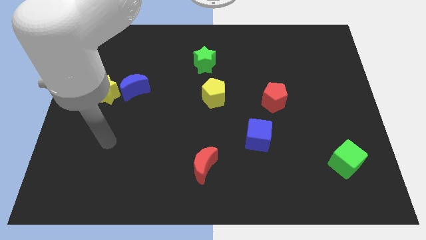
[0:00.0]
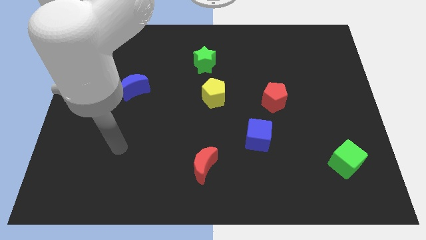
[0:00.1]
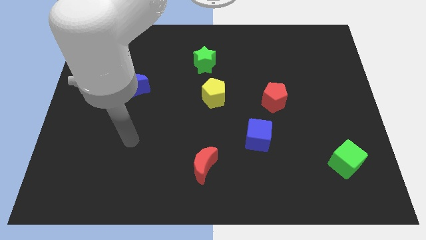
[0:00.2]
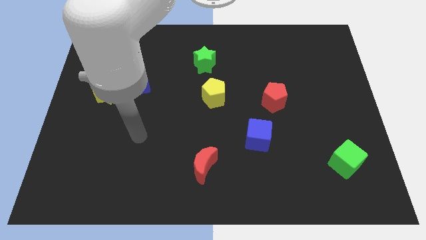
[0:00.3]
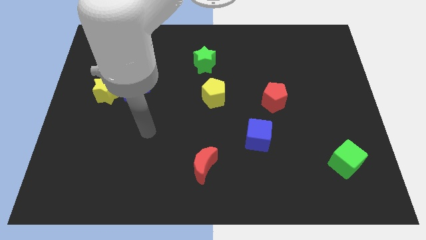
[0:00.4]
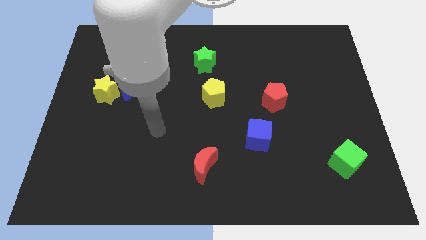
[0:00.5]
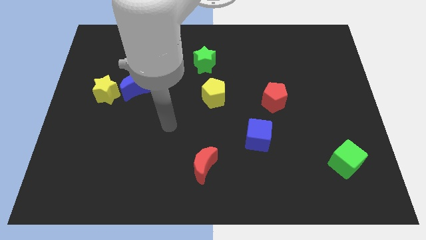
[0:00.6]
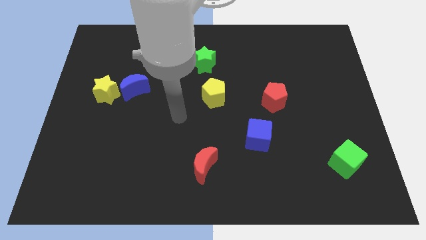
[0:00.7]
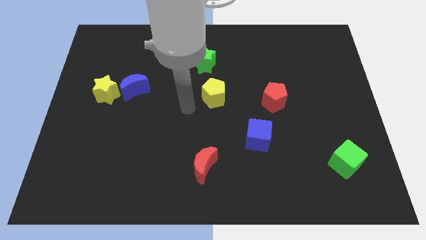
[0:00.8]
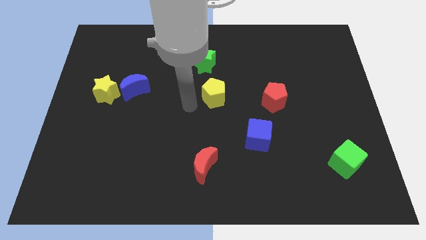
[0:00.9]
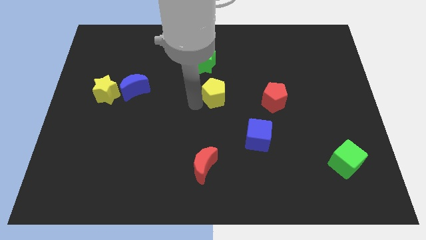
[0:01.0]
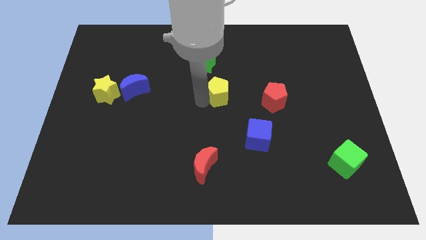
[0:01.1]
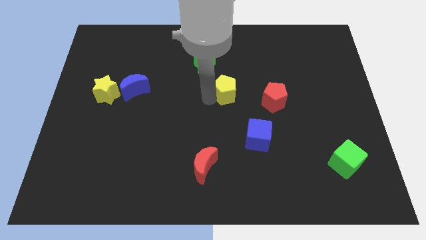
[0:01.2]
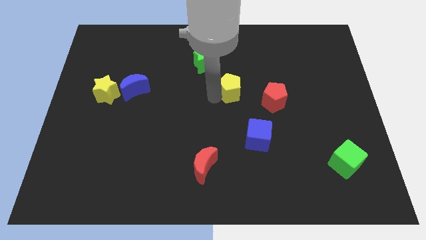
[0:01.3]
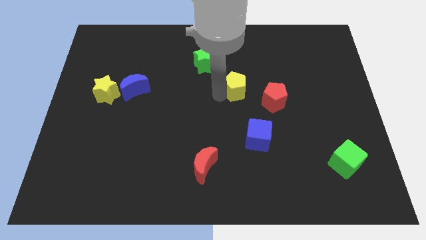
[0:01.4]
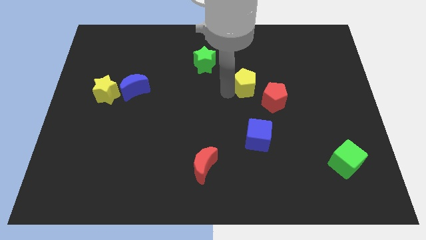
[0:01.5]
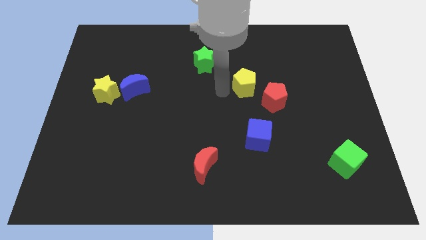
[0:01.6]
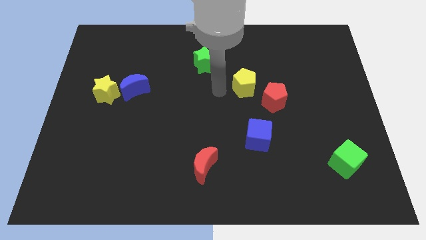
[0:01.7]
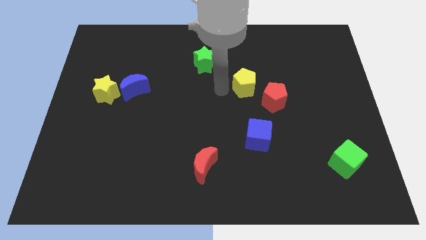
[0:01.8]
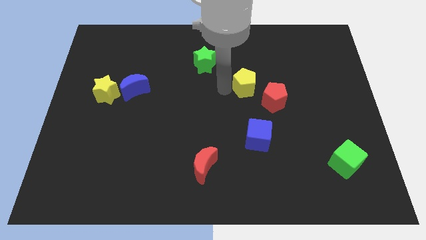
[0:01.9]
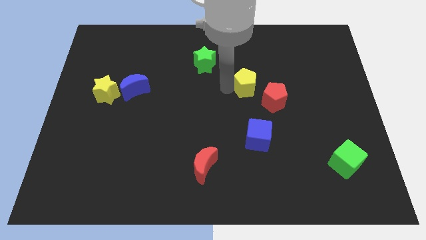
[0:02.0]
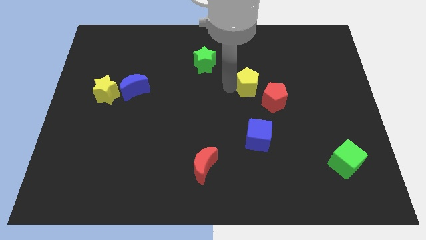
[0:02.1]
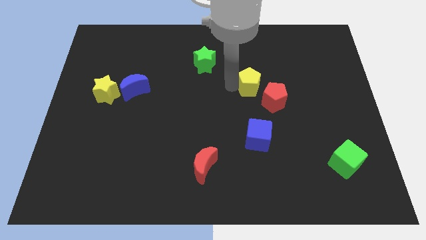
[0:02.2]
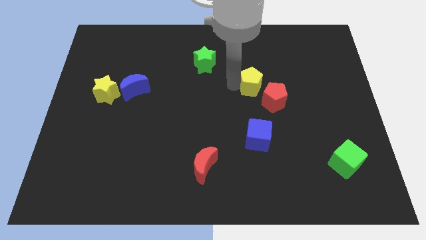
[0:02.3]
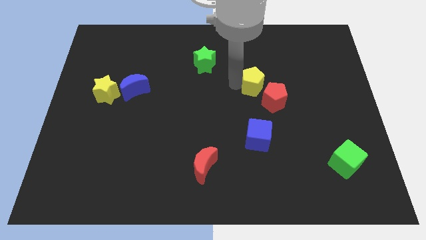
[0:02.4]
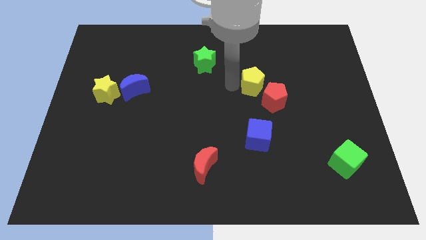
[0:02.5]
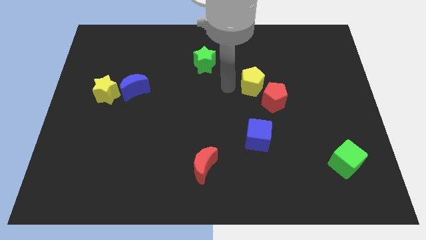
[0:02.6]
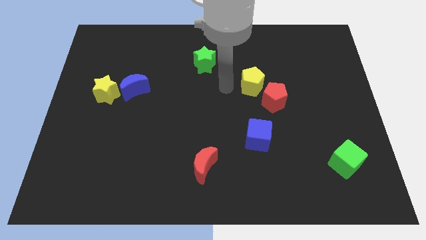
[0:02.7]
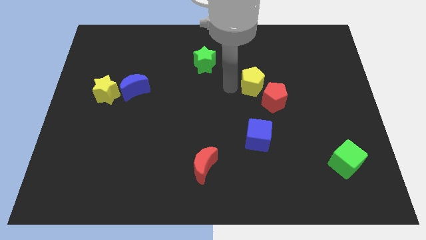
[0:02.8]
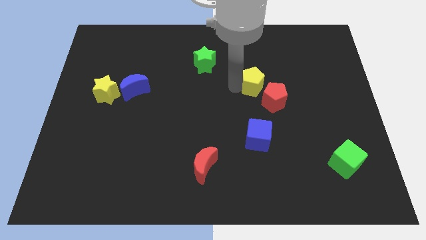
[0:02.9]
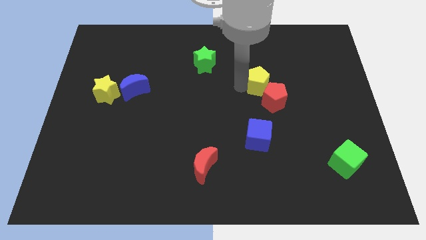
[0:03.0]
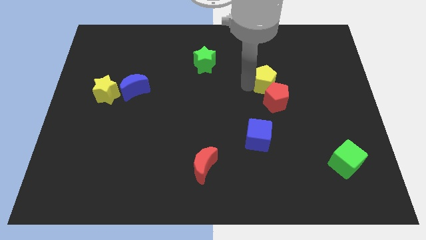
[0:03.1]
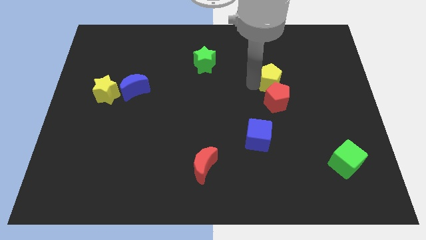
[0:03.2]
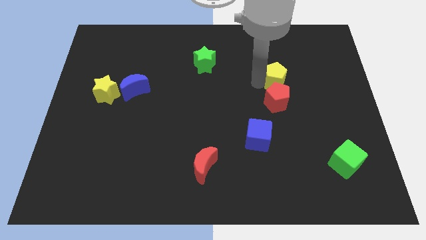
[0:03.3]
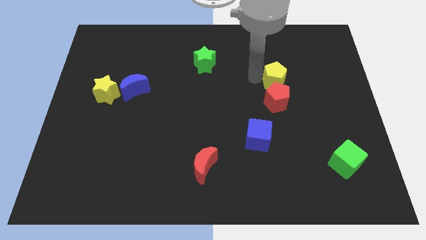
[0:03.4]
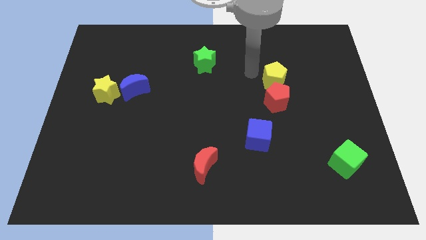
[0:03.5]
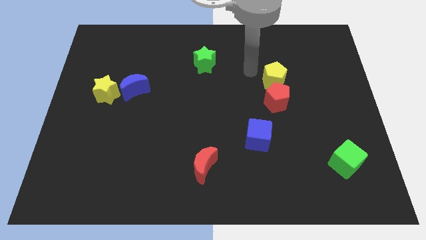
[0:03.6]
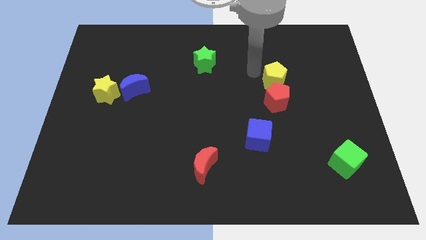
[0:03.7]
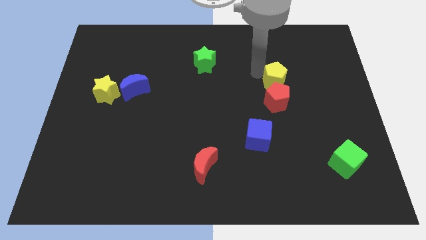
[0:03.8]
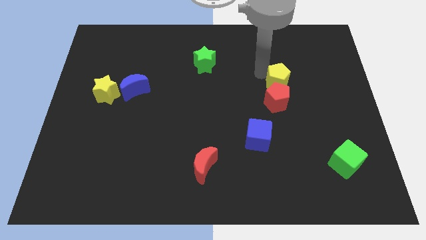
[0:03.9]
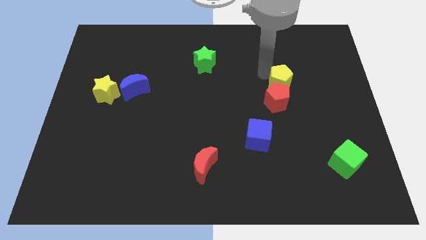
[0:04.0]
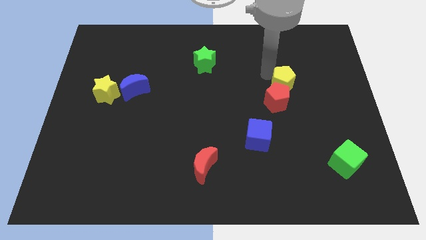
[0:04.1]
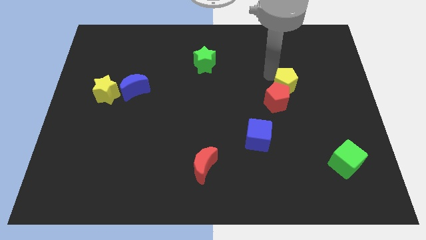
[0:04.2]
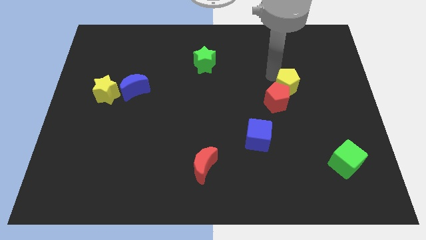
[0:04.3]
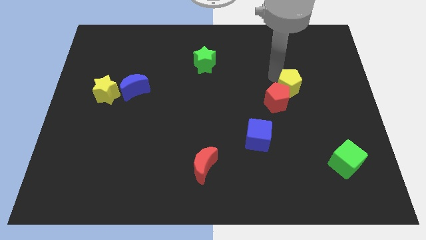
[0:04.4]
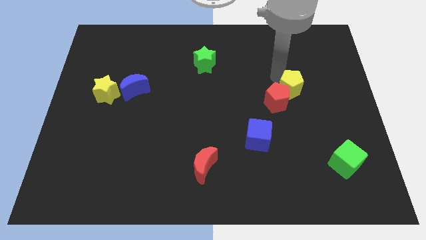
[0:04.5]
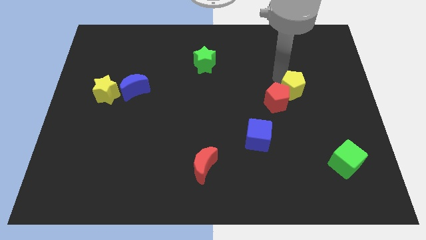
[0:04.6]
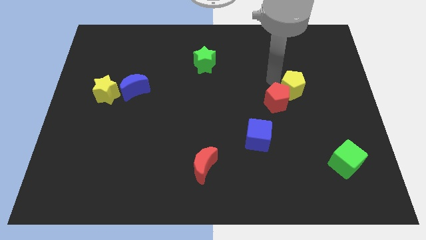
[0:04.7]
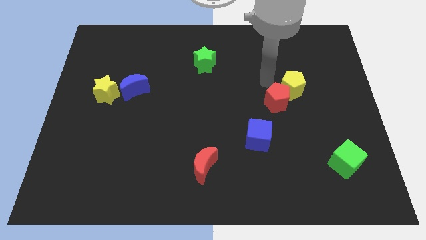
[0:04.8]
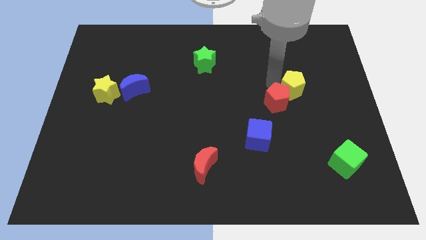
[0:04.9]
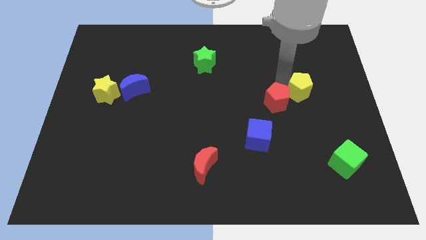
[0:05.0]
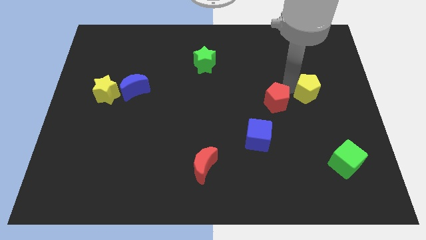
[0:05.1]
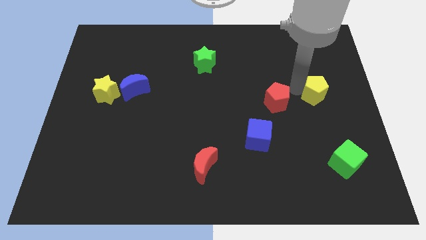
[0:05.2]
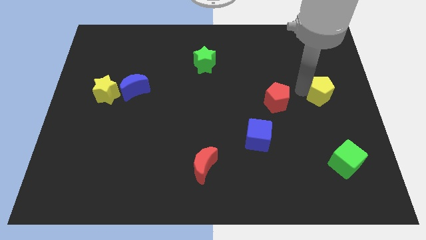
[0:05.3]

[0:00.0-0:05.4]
put the yellow pentagon to the center right
